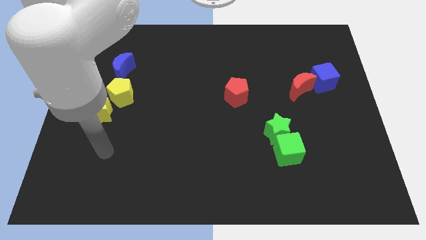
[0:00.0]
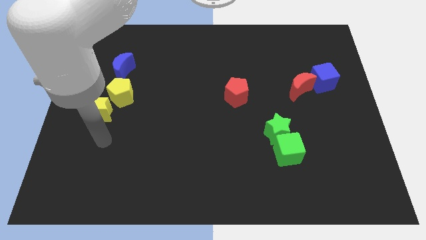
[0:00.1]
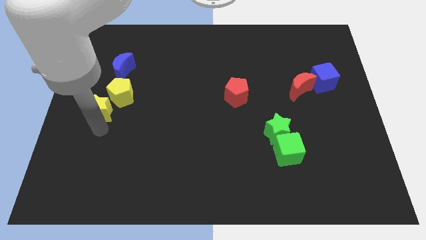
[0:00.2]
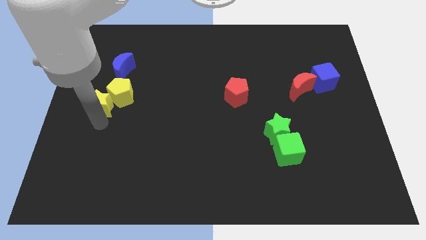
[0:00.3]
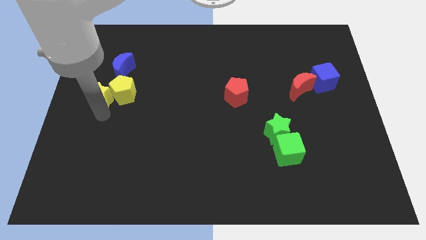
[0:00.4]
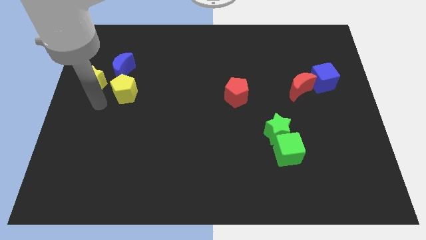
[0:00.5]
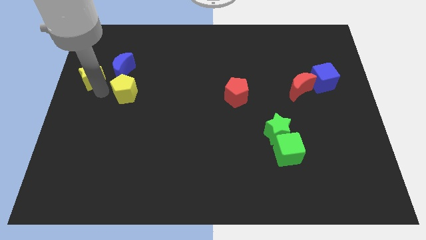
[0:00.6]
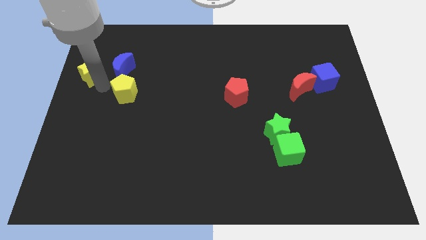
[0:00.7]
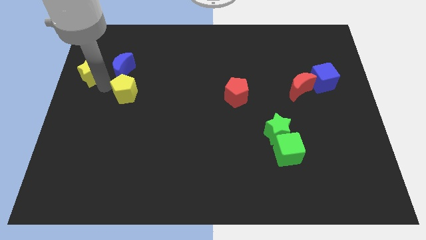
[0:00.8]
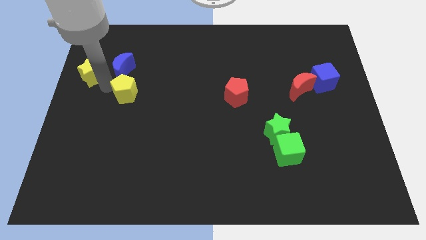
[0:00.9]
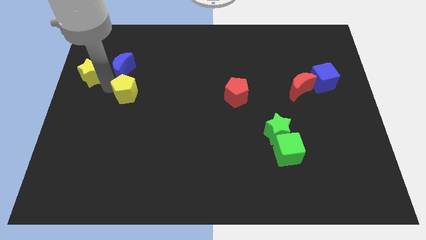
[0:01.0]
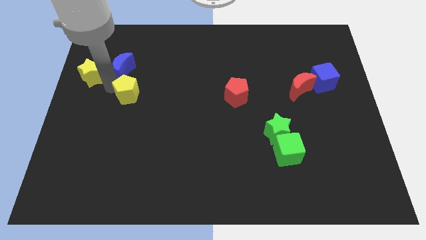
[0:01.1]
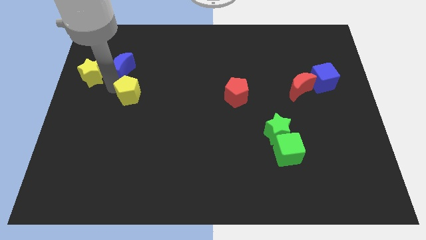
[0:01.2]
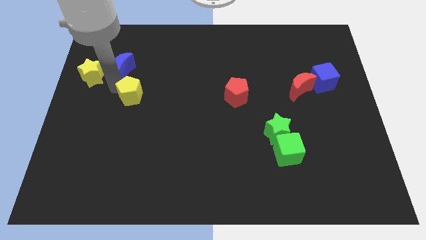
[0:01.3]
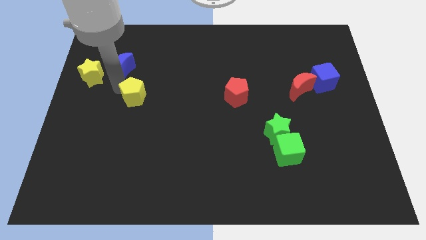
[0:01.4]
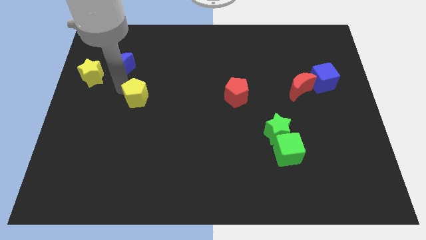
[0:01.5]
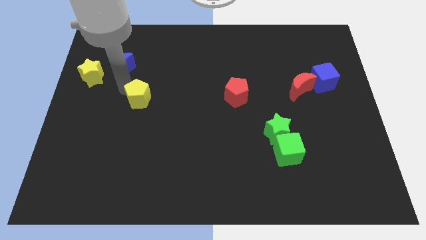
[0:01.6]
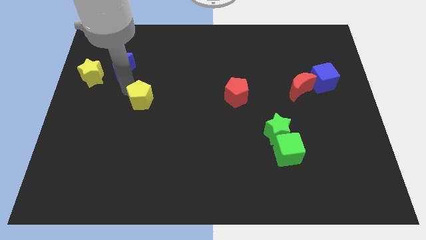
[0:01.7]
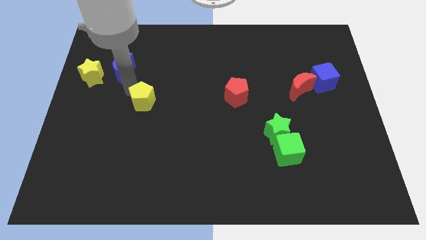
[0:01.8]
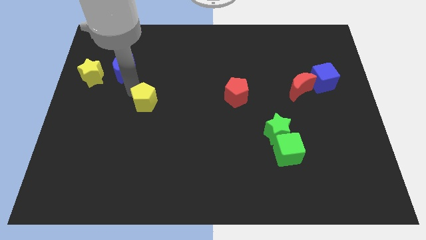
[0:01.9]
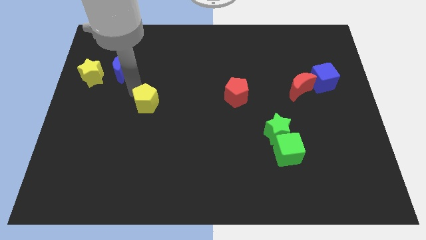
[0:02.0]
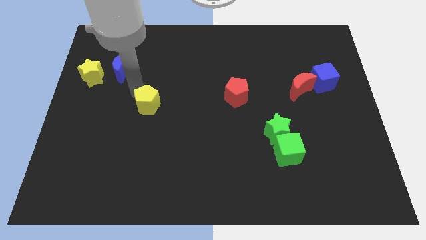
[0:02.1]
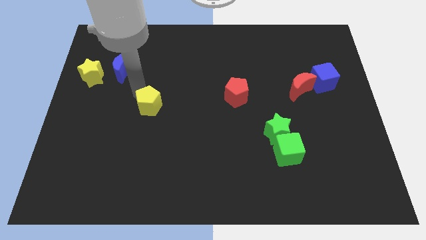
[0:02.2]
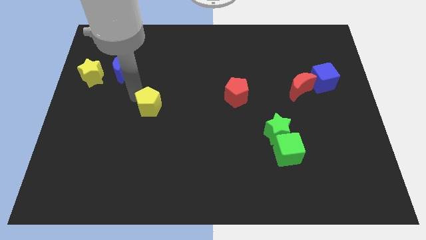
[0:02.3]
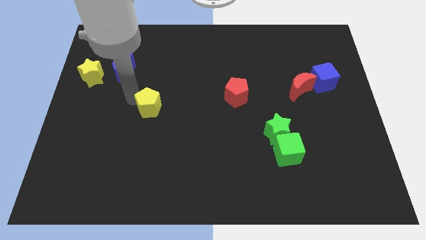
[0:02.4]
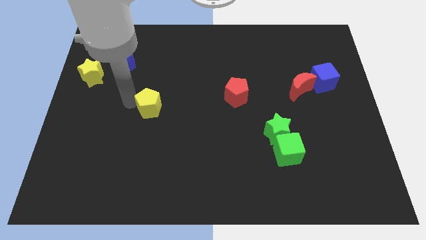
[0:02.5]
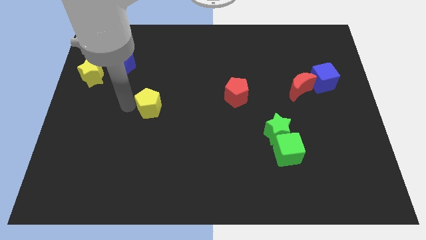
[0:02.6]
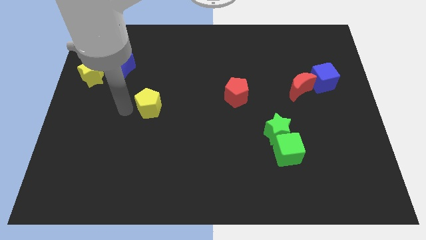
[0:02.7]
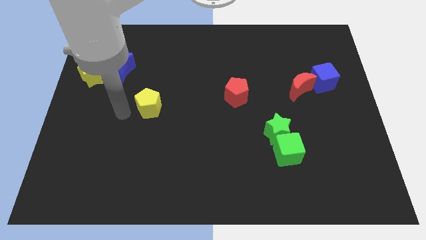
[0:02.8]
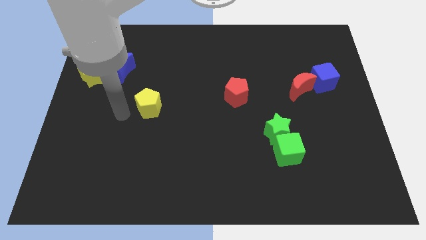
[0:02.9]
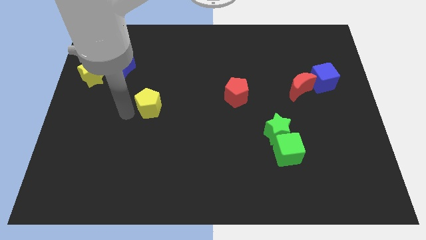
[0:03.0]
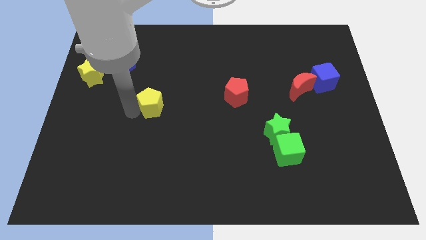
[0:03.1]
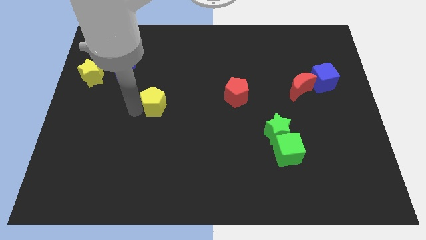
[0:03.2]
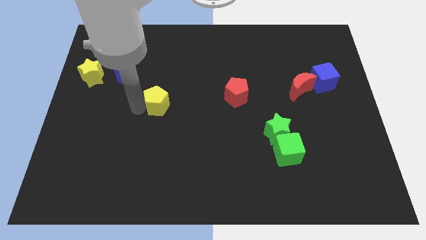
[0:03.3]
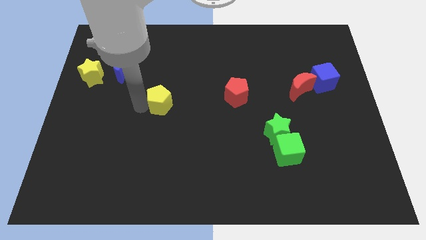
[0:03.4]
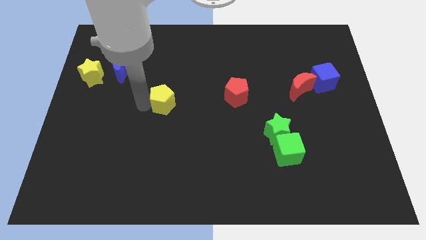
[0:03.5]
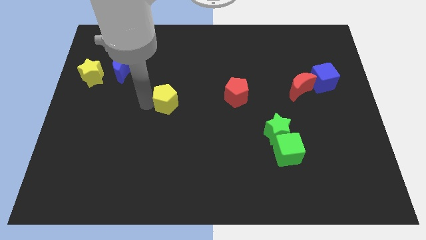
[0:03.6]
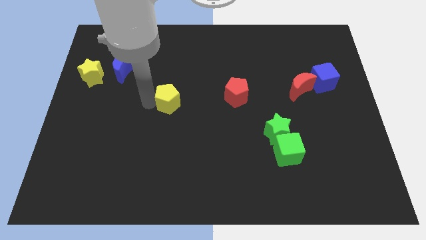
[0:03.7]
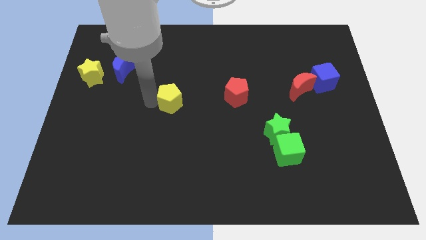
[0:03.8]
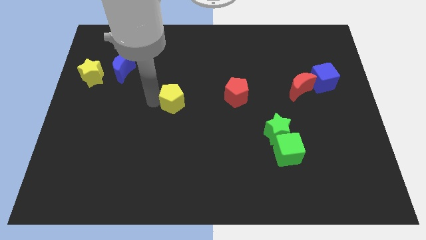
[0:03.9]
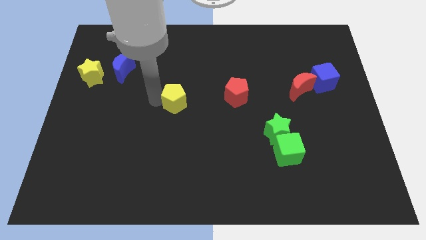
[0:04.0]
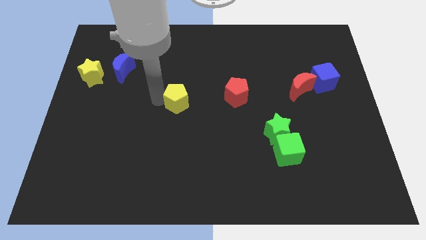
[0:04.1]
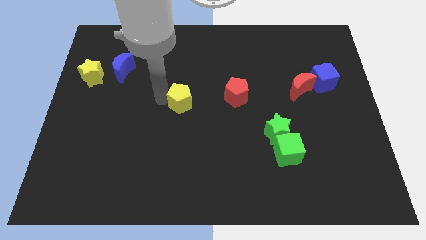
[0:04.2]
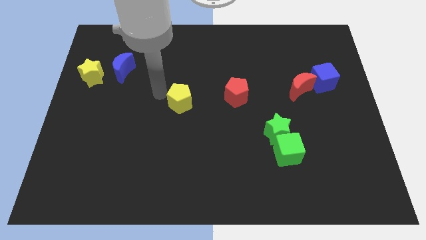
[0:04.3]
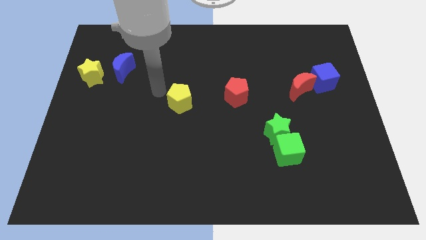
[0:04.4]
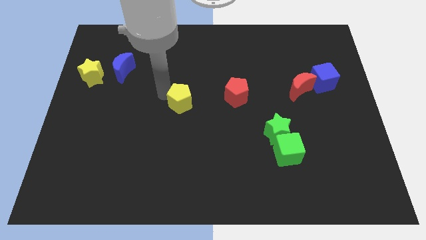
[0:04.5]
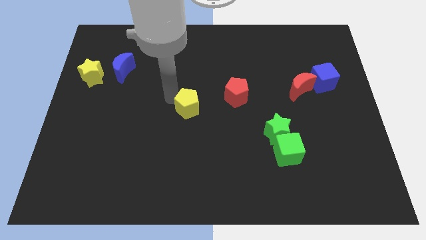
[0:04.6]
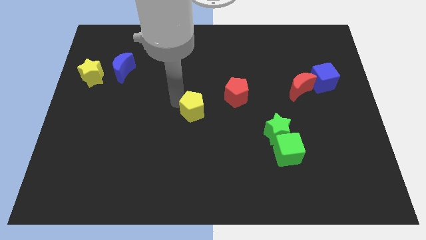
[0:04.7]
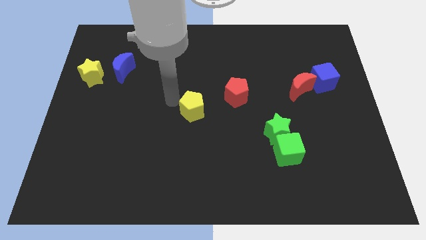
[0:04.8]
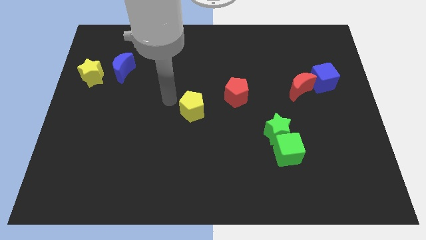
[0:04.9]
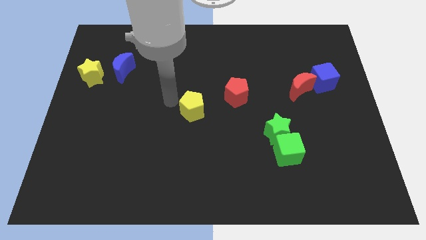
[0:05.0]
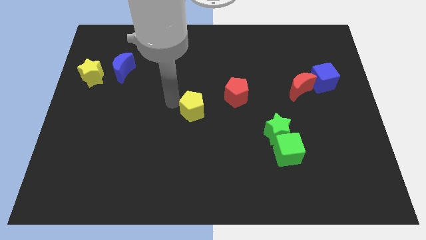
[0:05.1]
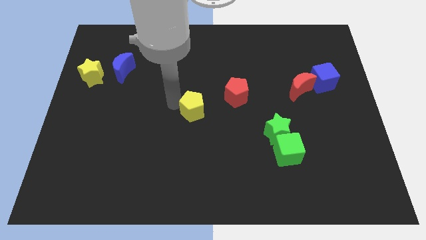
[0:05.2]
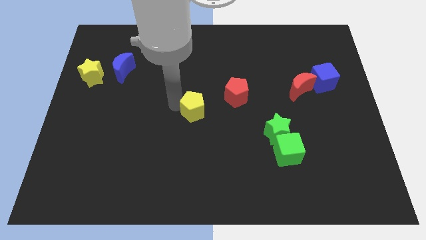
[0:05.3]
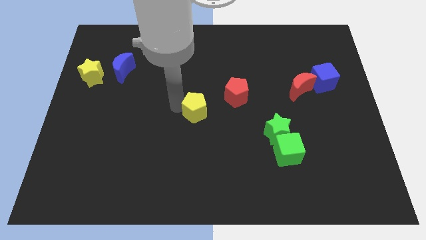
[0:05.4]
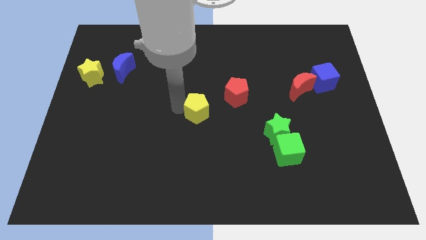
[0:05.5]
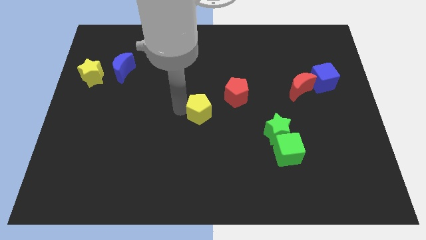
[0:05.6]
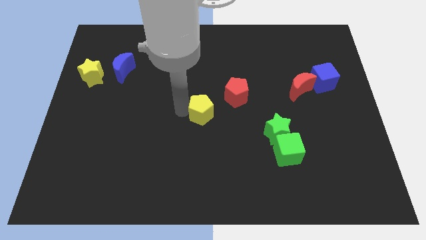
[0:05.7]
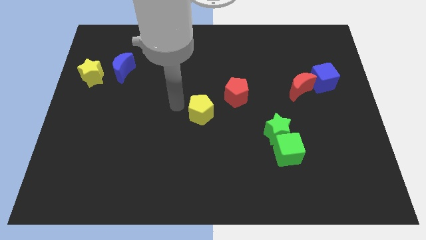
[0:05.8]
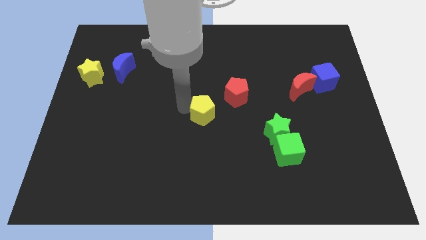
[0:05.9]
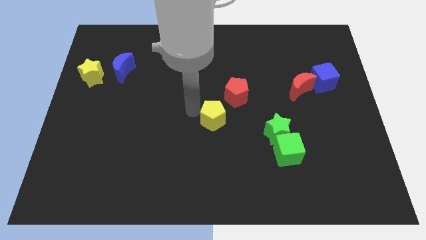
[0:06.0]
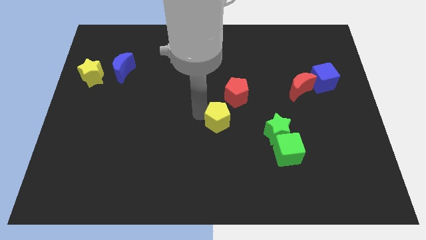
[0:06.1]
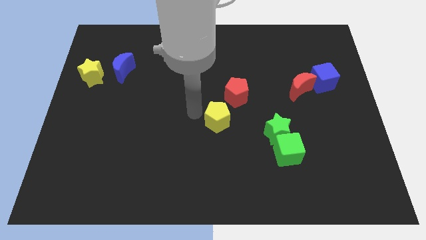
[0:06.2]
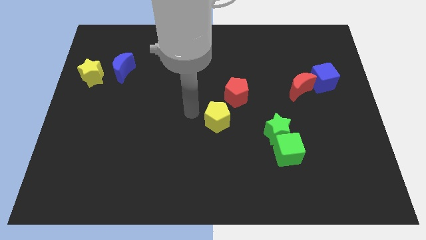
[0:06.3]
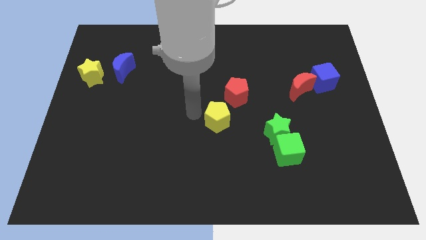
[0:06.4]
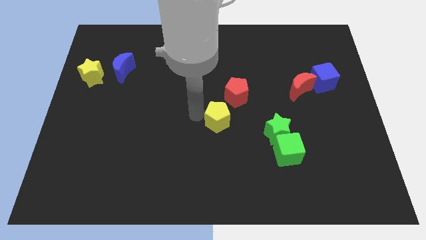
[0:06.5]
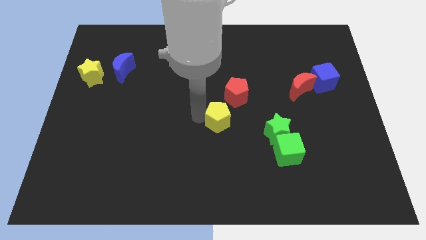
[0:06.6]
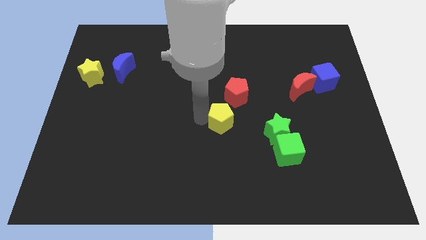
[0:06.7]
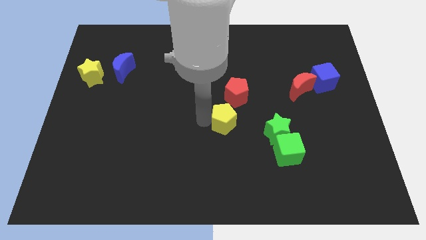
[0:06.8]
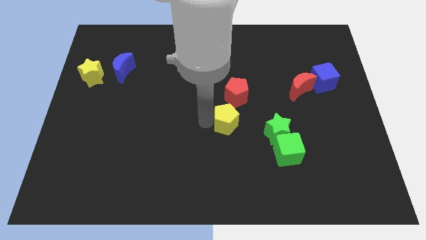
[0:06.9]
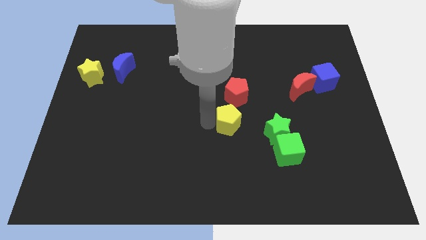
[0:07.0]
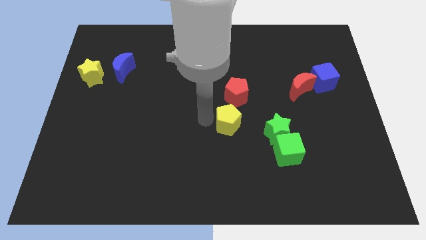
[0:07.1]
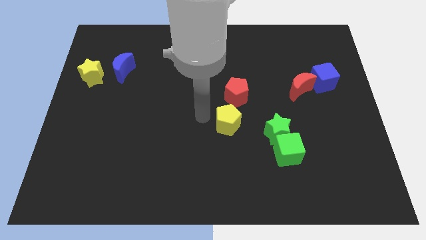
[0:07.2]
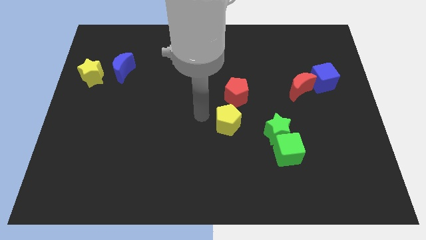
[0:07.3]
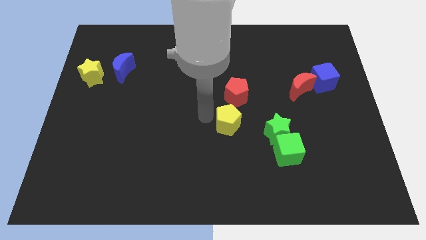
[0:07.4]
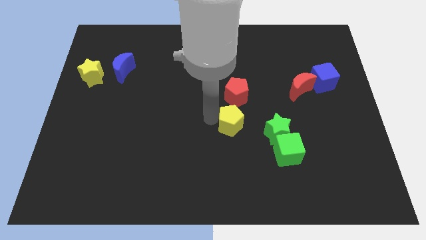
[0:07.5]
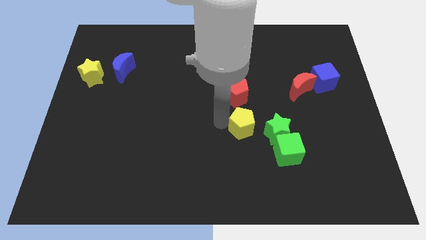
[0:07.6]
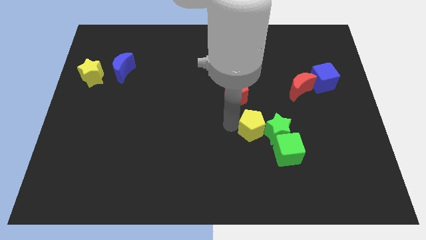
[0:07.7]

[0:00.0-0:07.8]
put the yellow pentagon close to the green star
